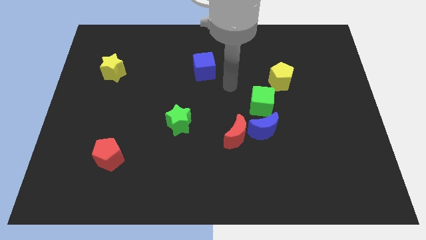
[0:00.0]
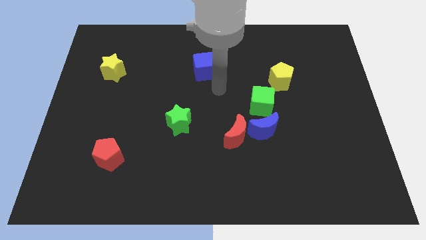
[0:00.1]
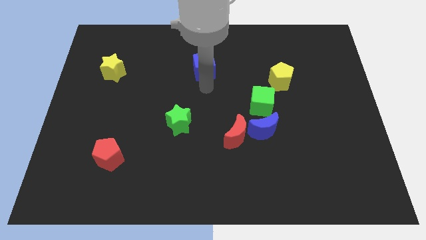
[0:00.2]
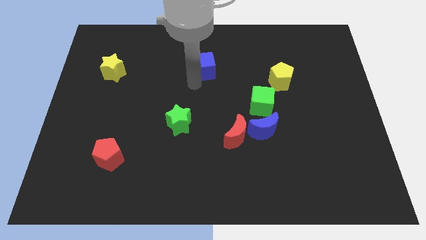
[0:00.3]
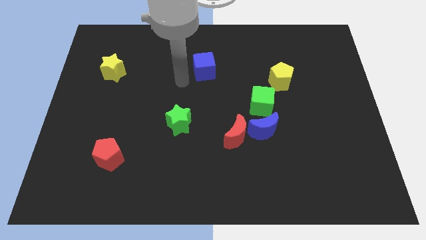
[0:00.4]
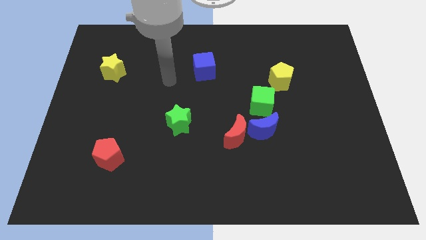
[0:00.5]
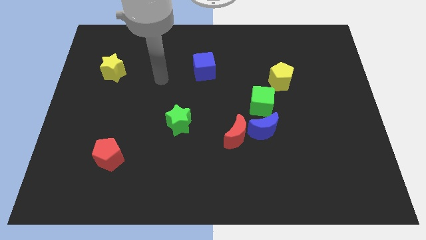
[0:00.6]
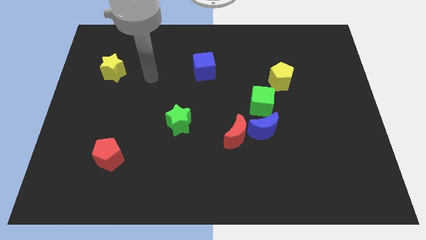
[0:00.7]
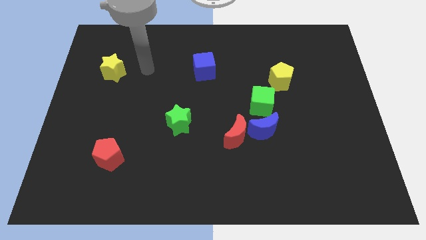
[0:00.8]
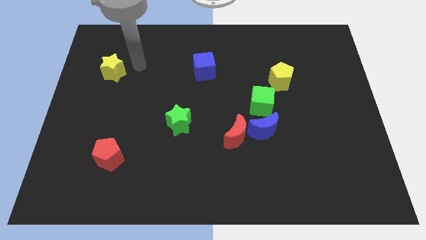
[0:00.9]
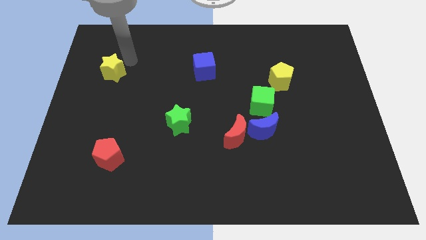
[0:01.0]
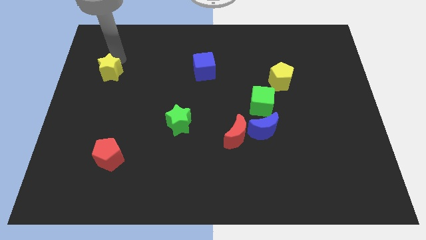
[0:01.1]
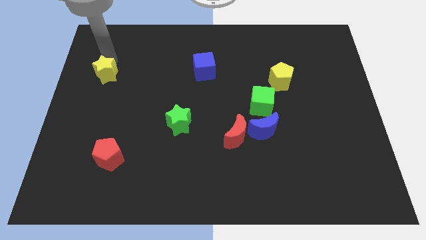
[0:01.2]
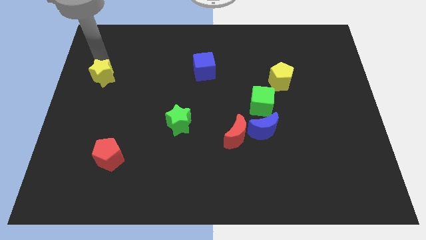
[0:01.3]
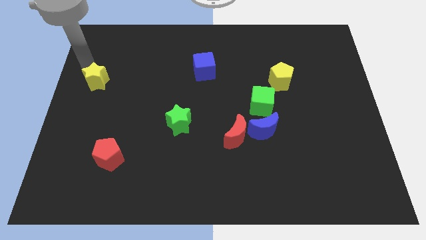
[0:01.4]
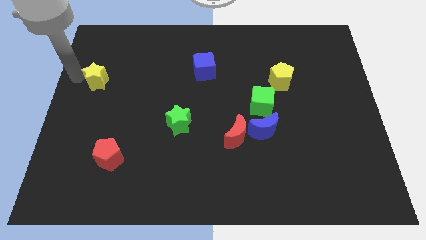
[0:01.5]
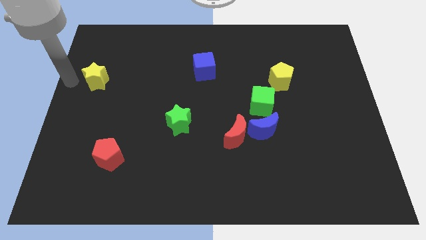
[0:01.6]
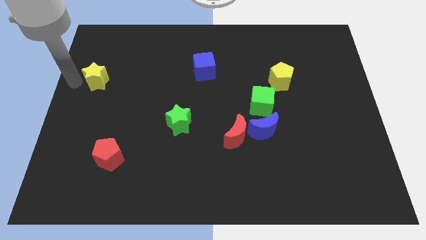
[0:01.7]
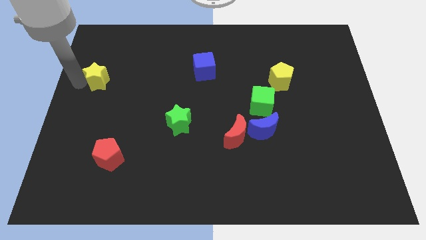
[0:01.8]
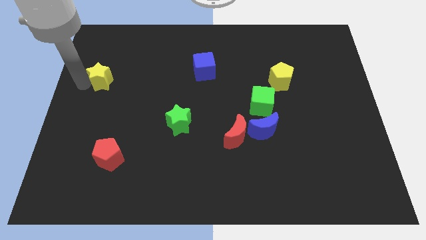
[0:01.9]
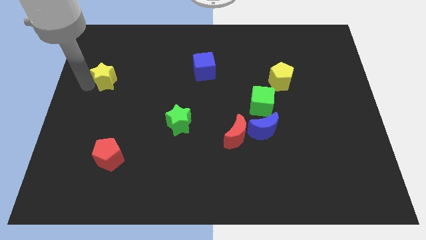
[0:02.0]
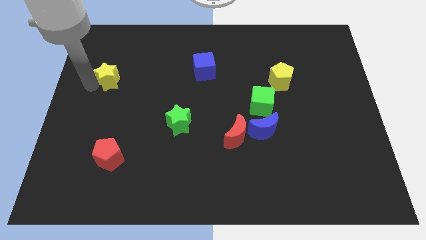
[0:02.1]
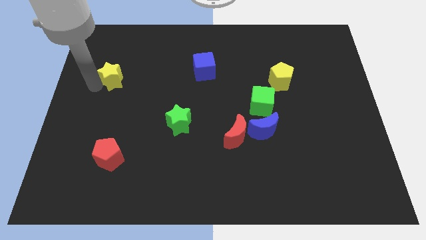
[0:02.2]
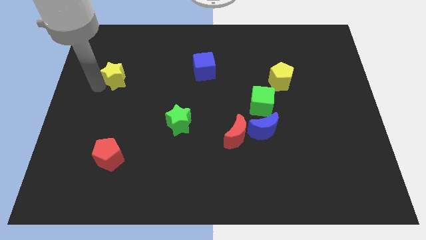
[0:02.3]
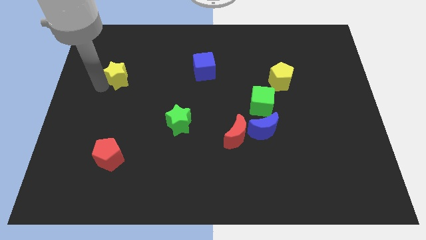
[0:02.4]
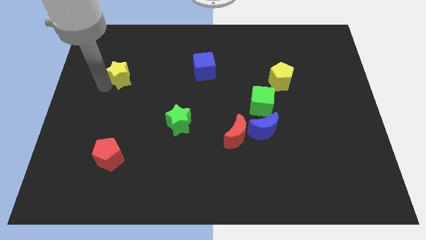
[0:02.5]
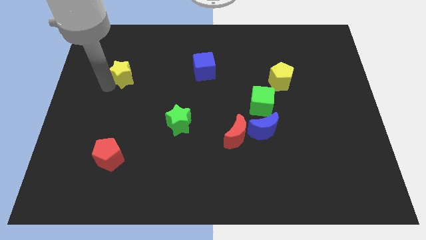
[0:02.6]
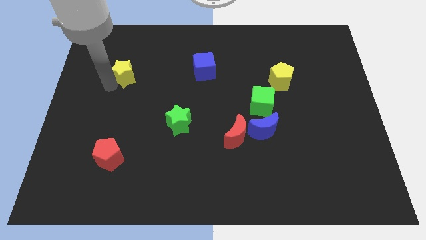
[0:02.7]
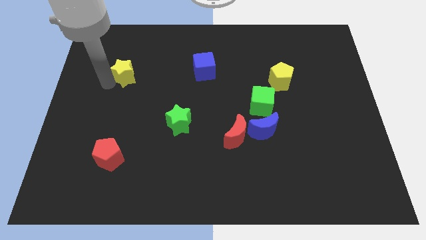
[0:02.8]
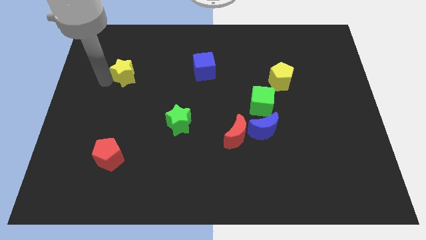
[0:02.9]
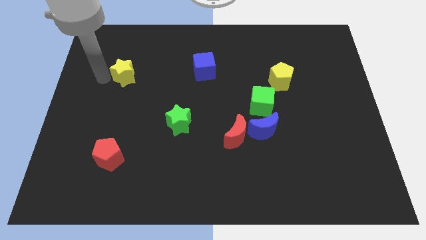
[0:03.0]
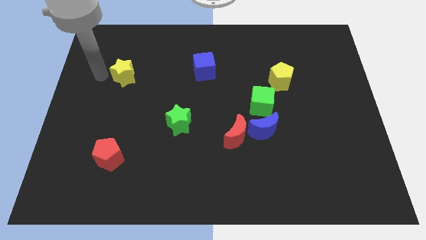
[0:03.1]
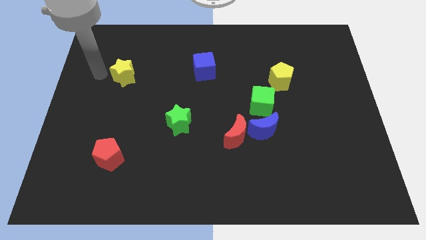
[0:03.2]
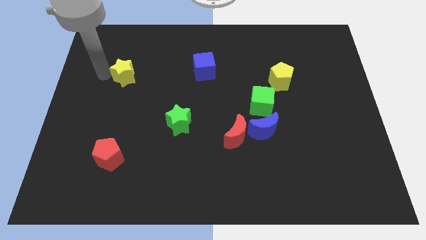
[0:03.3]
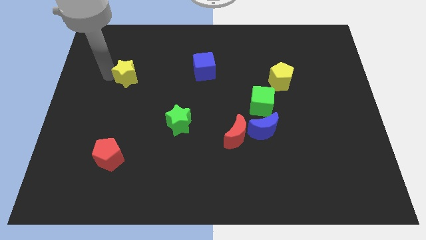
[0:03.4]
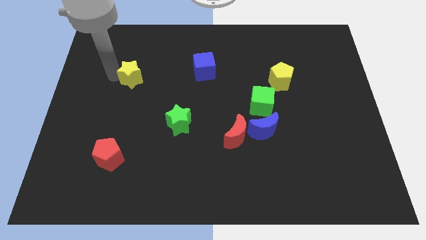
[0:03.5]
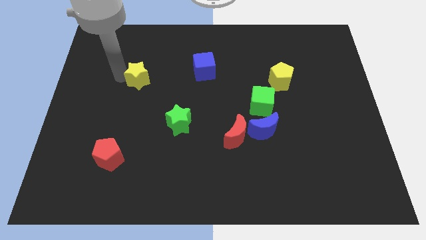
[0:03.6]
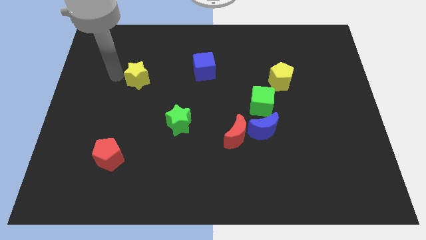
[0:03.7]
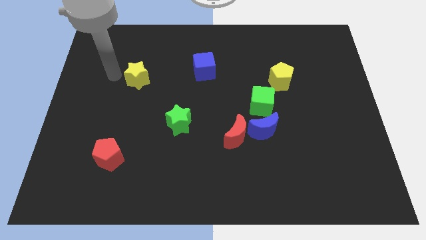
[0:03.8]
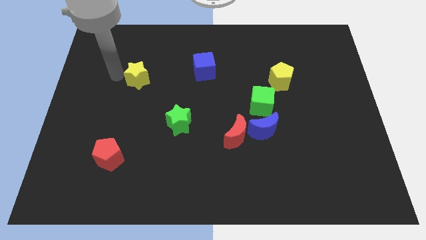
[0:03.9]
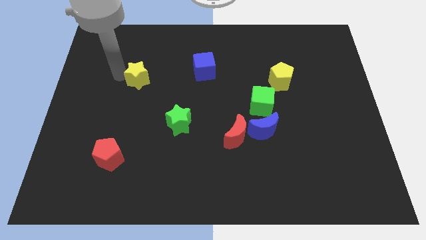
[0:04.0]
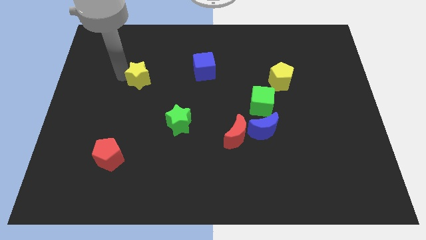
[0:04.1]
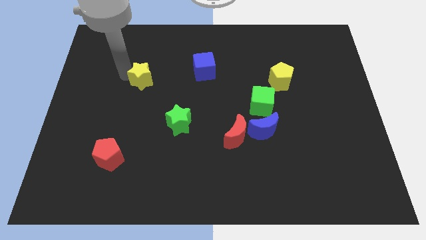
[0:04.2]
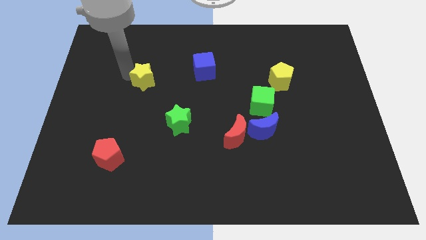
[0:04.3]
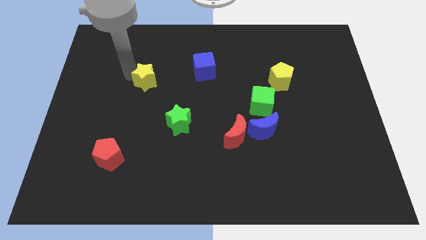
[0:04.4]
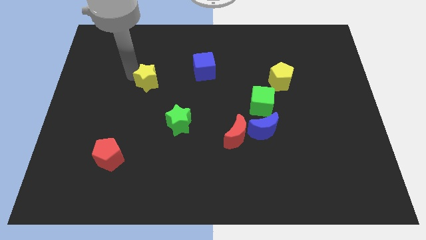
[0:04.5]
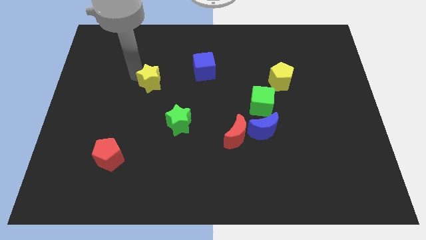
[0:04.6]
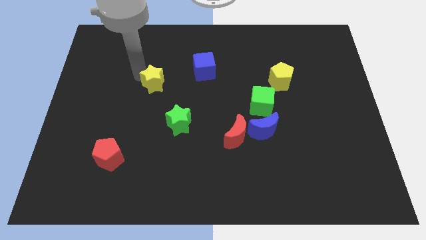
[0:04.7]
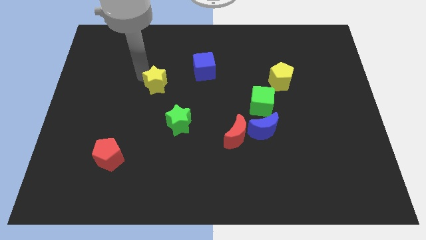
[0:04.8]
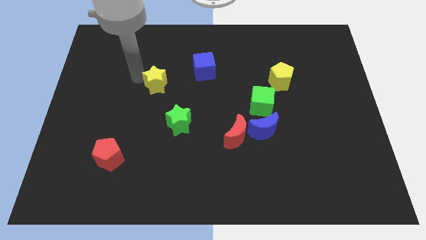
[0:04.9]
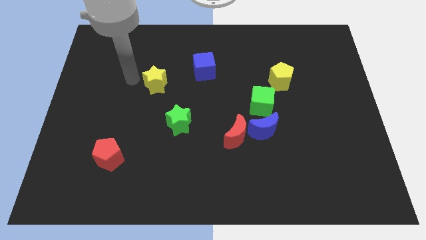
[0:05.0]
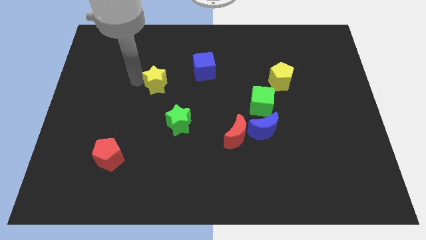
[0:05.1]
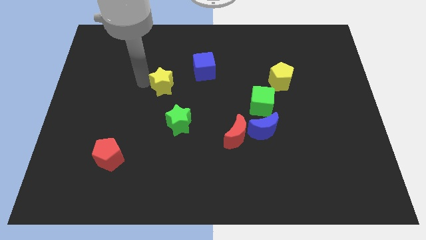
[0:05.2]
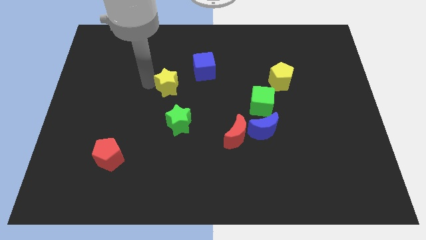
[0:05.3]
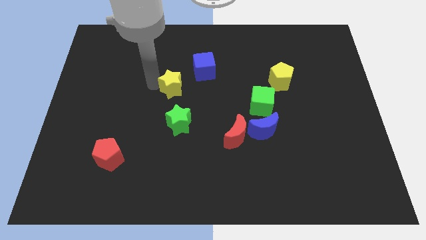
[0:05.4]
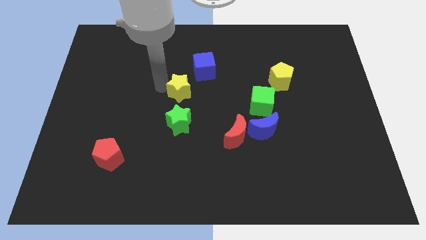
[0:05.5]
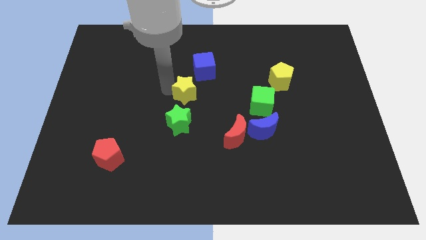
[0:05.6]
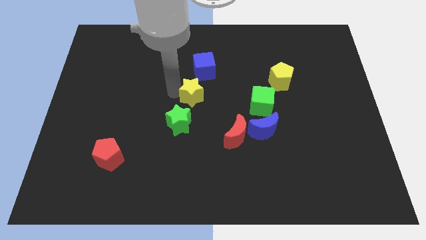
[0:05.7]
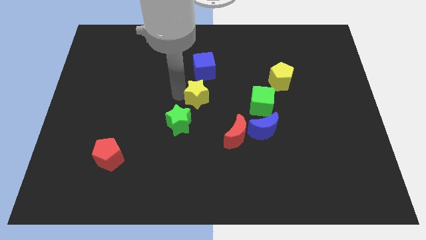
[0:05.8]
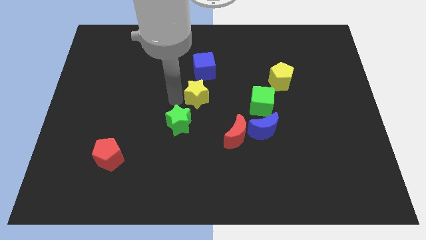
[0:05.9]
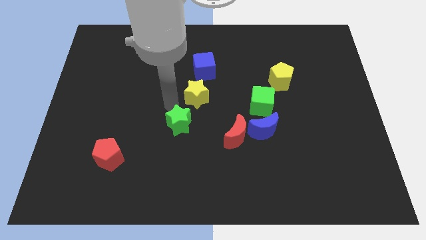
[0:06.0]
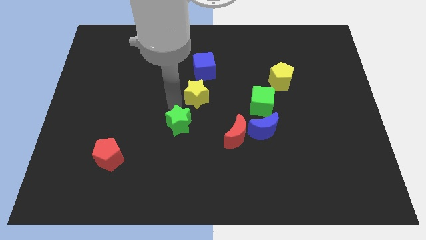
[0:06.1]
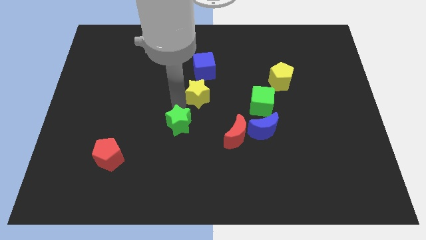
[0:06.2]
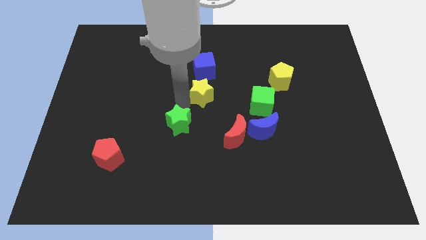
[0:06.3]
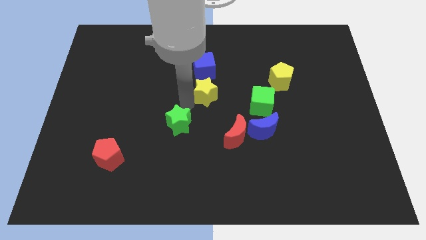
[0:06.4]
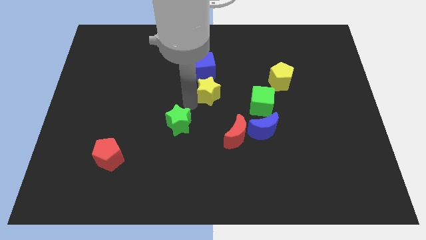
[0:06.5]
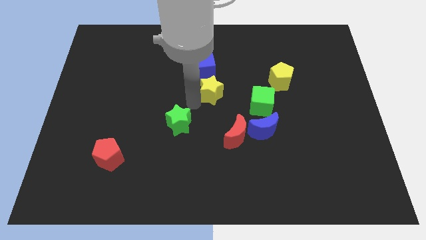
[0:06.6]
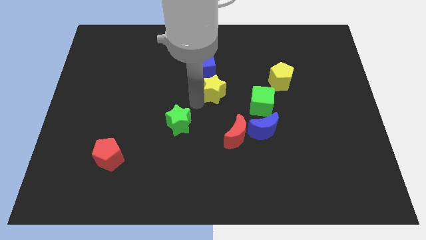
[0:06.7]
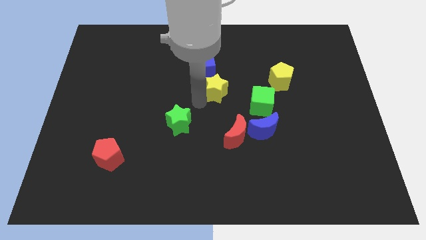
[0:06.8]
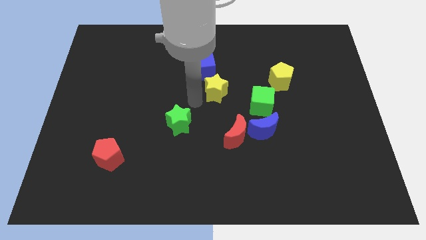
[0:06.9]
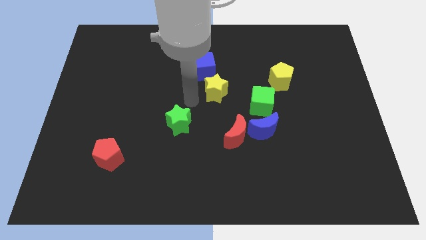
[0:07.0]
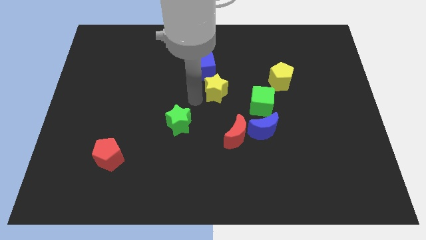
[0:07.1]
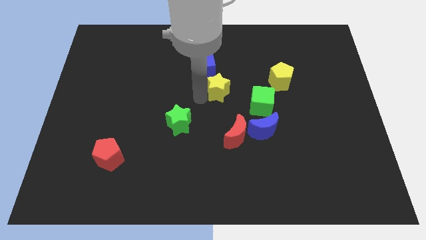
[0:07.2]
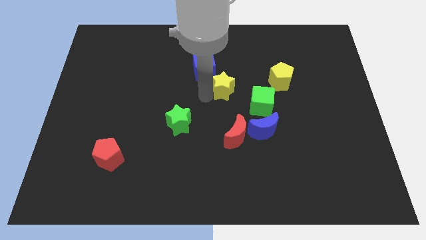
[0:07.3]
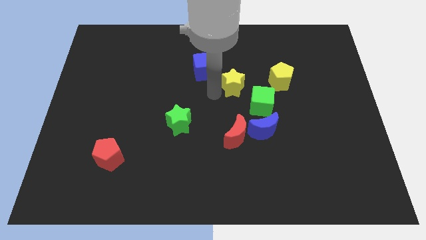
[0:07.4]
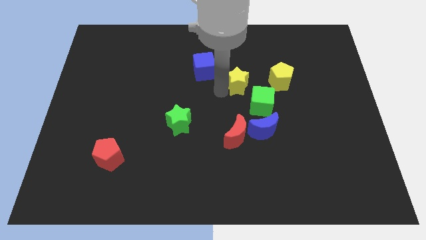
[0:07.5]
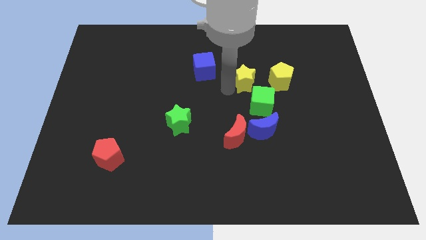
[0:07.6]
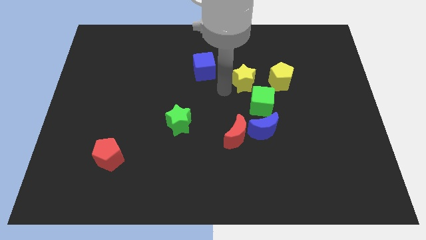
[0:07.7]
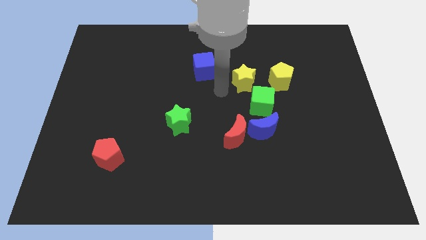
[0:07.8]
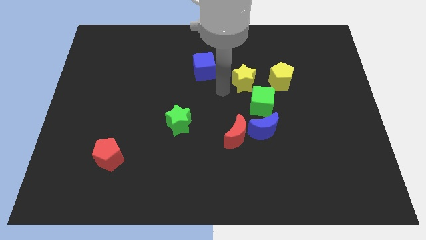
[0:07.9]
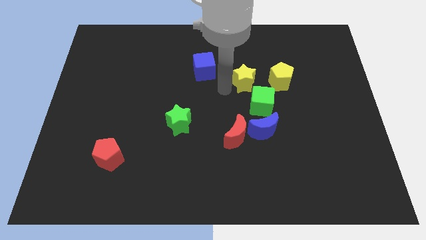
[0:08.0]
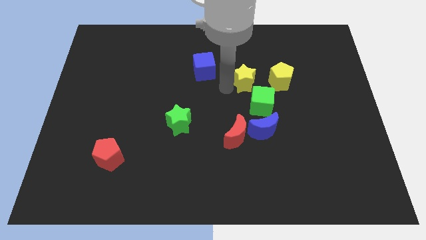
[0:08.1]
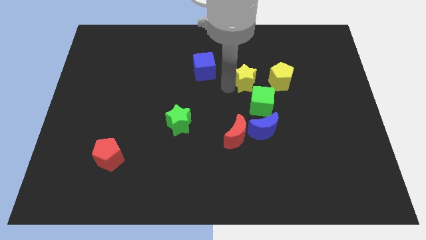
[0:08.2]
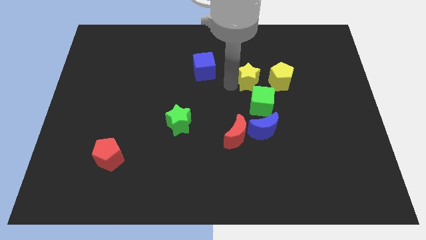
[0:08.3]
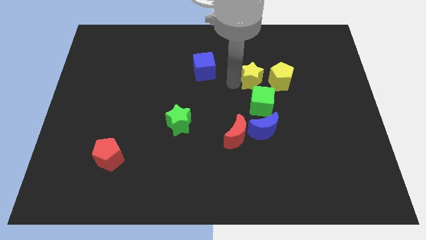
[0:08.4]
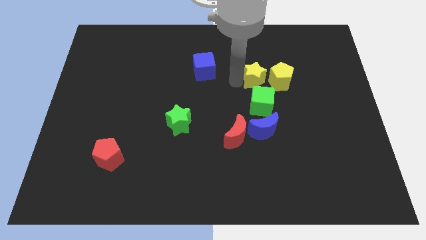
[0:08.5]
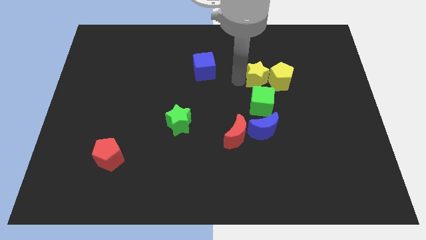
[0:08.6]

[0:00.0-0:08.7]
put the yellow star to the yellow pentagon
